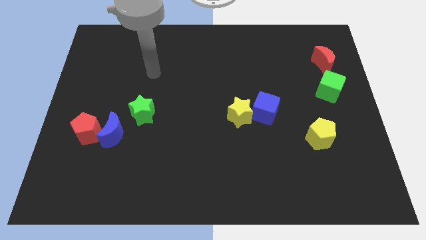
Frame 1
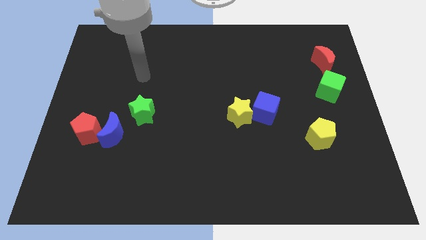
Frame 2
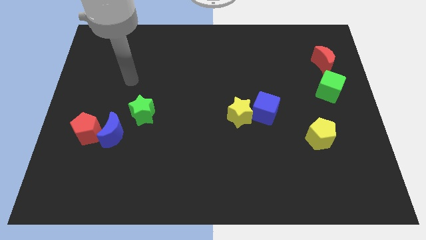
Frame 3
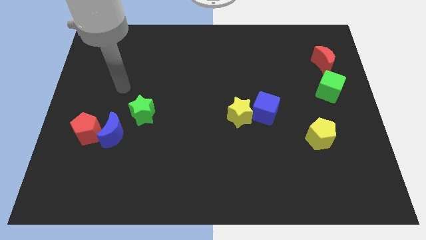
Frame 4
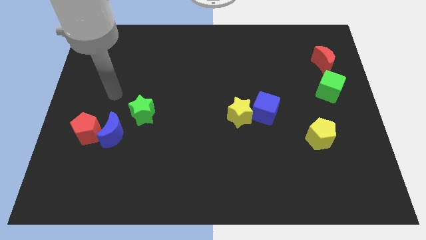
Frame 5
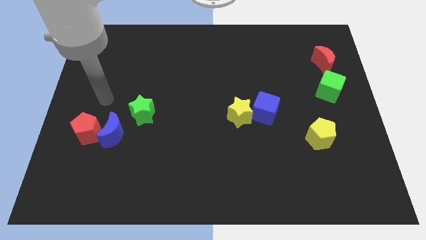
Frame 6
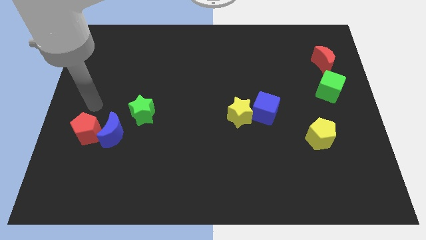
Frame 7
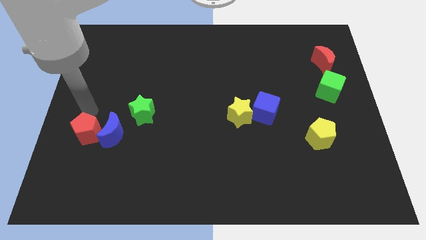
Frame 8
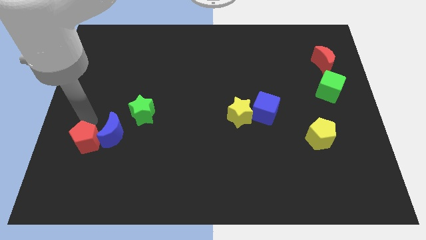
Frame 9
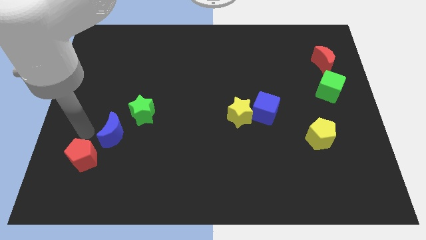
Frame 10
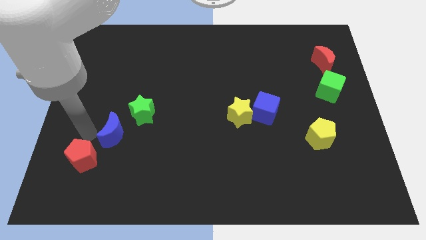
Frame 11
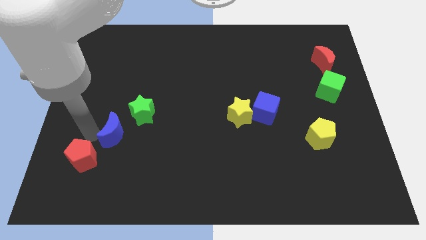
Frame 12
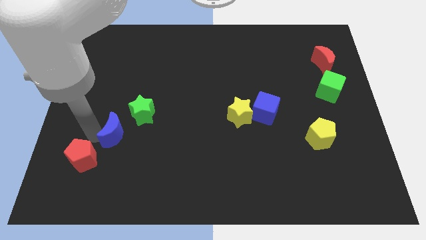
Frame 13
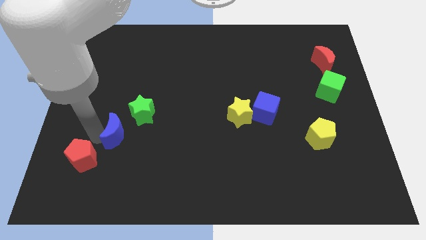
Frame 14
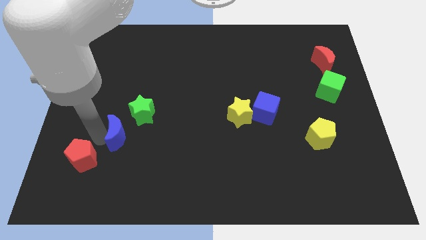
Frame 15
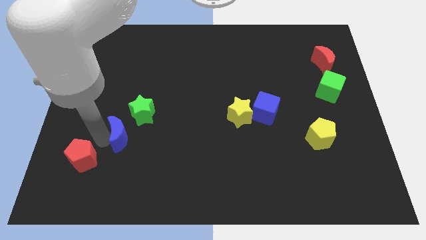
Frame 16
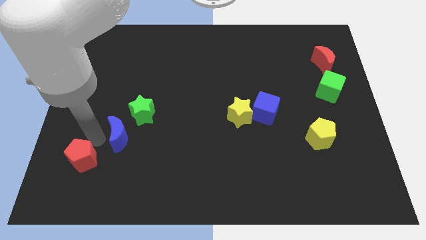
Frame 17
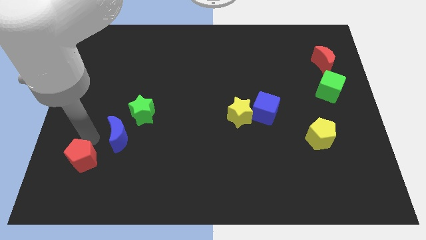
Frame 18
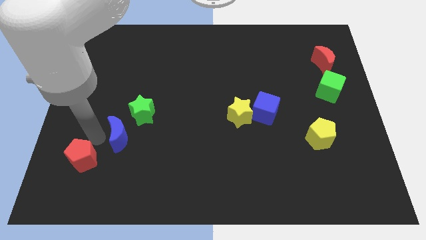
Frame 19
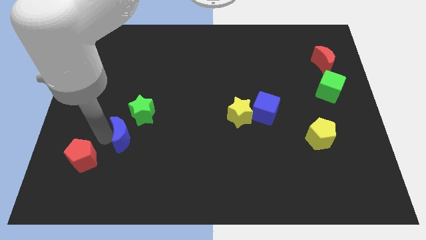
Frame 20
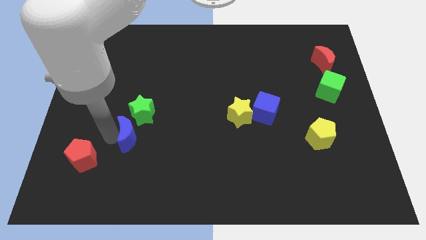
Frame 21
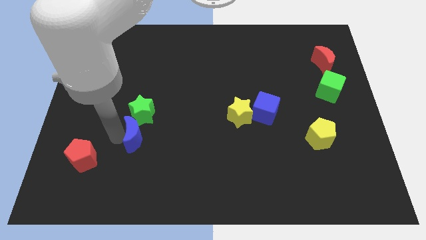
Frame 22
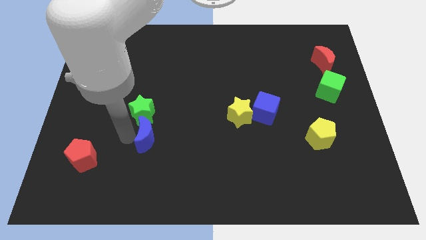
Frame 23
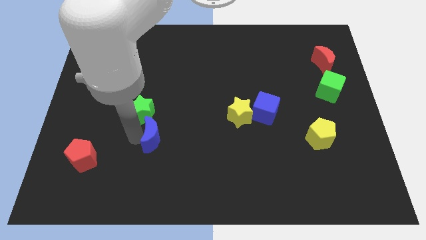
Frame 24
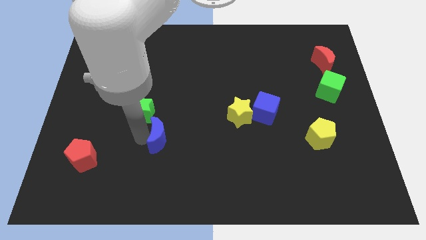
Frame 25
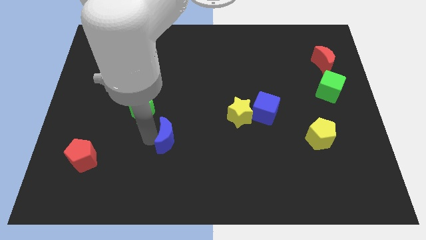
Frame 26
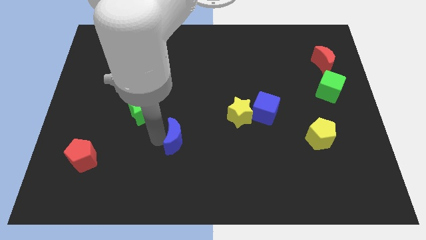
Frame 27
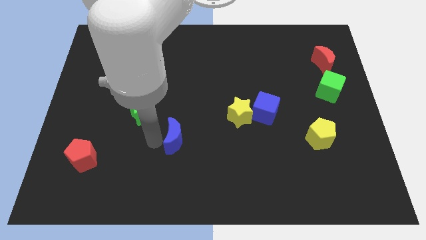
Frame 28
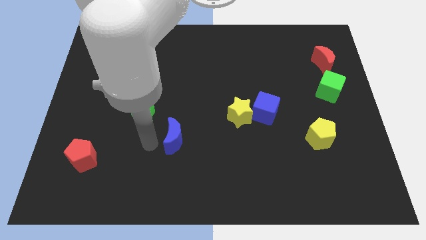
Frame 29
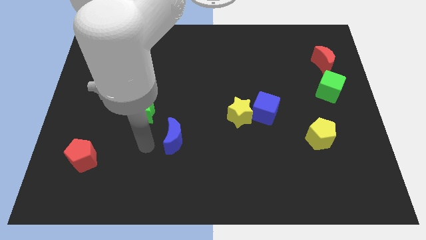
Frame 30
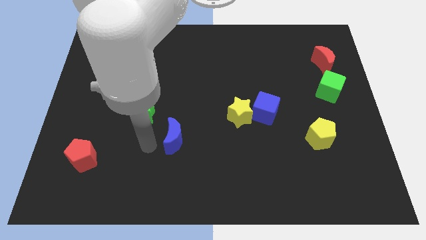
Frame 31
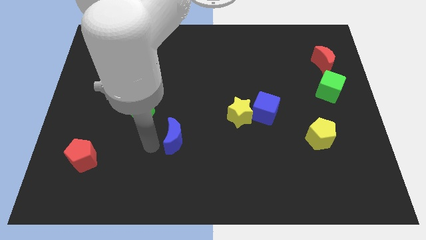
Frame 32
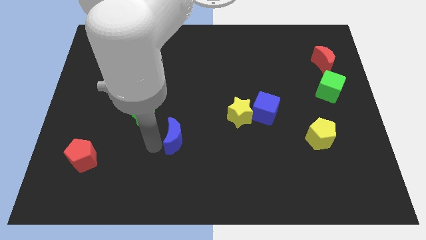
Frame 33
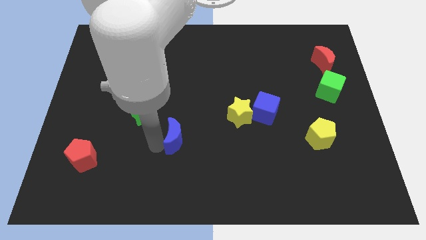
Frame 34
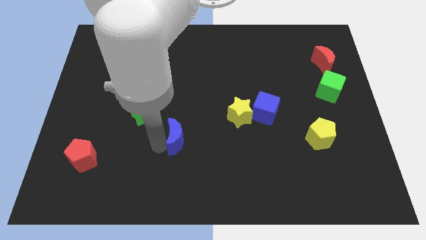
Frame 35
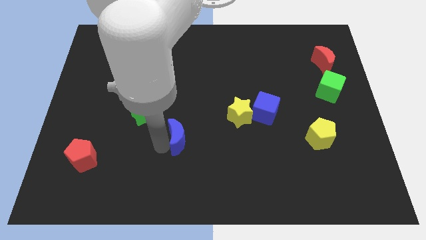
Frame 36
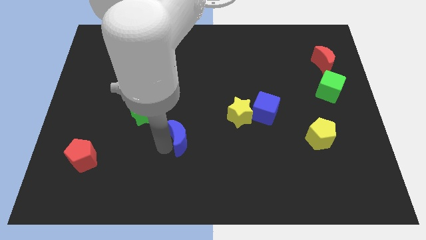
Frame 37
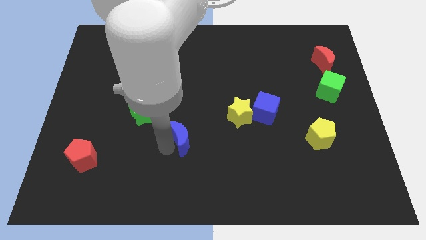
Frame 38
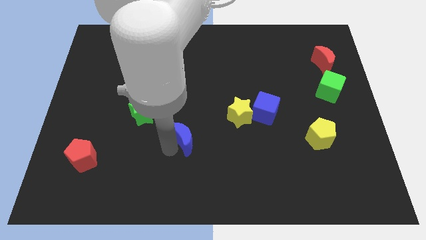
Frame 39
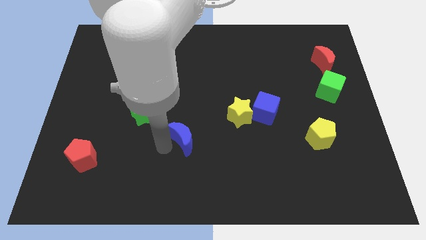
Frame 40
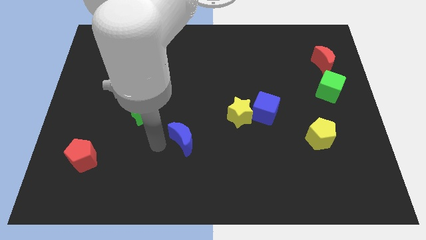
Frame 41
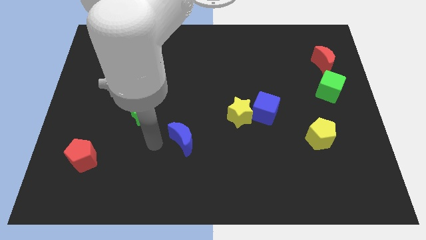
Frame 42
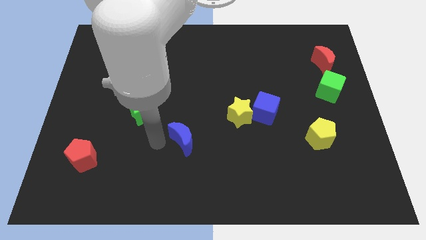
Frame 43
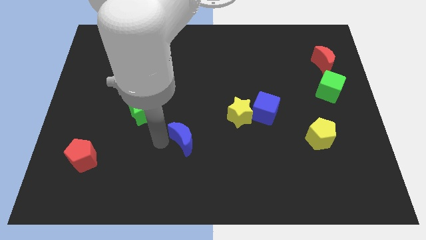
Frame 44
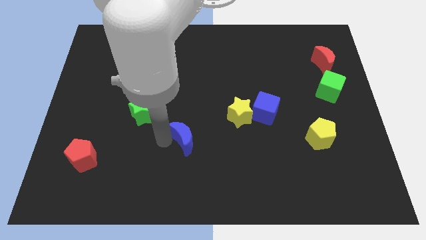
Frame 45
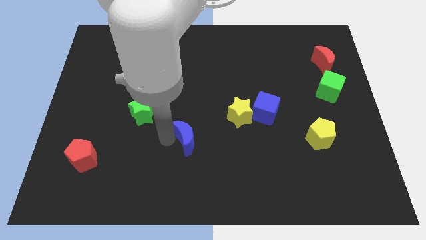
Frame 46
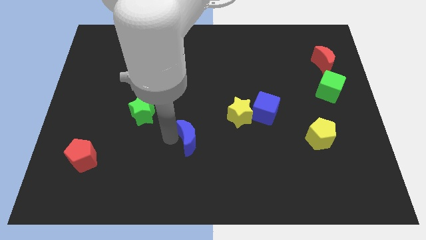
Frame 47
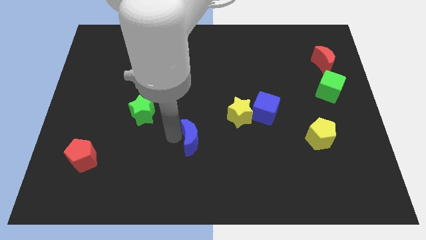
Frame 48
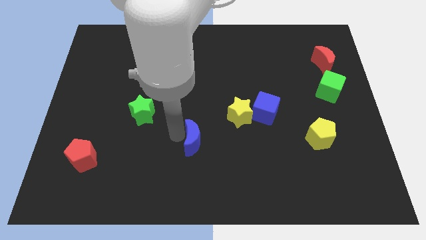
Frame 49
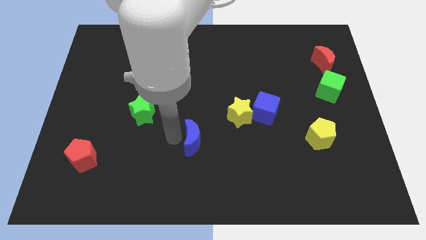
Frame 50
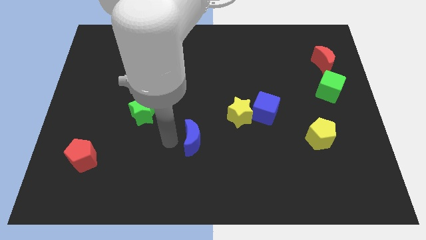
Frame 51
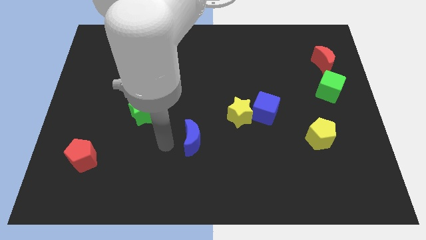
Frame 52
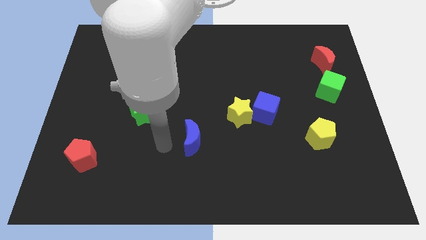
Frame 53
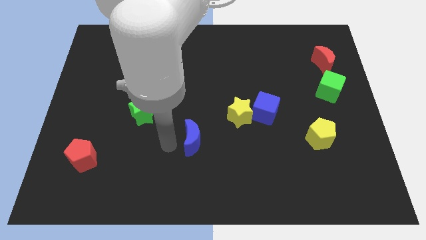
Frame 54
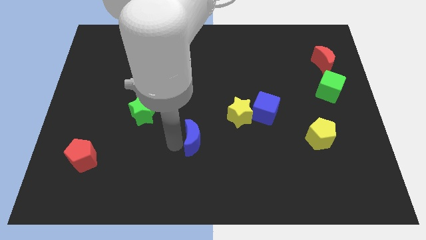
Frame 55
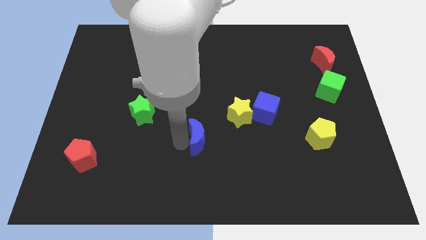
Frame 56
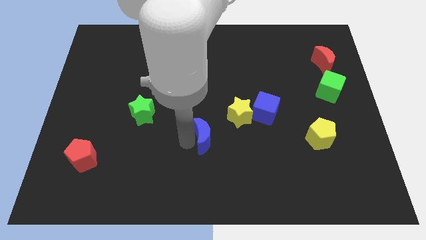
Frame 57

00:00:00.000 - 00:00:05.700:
move the blue moon right

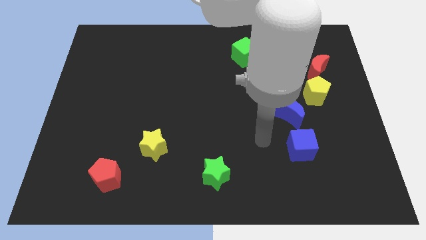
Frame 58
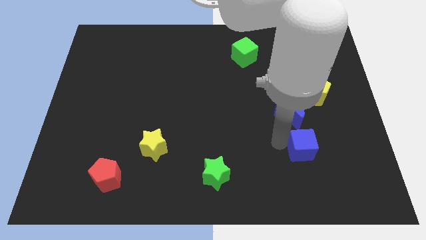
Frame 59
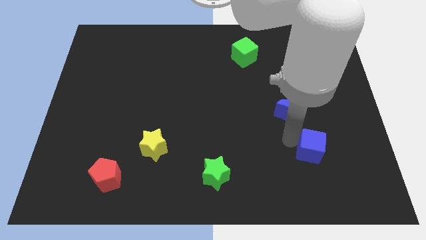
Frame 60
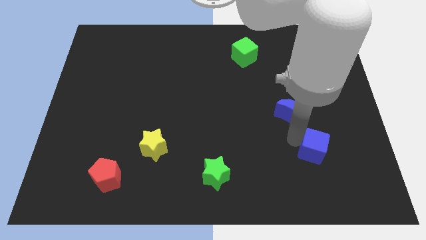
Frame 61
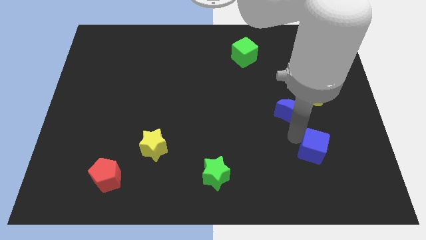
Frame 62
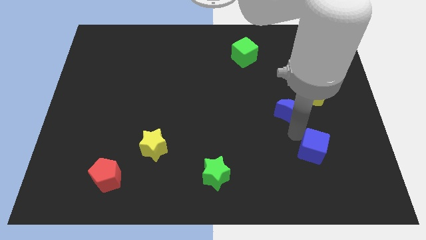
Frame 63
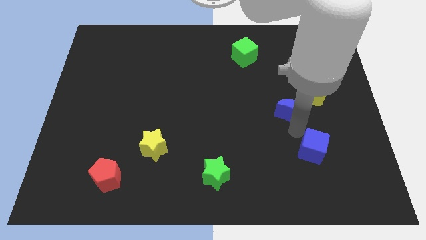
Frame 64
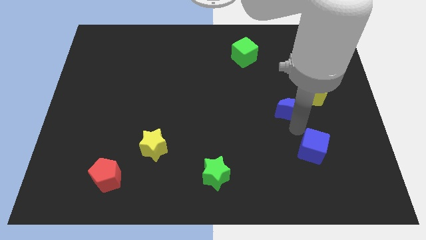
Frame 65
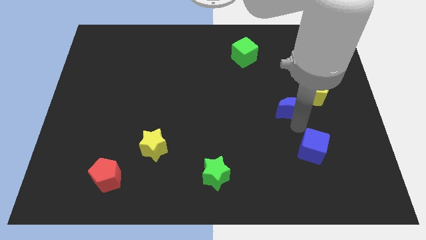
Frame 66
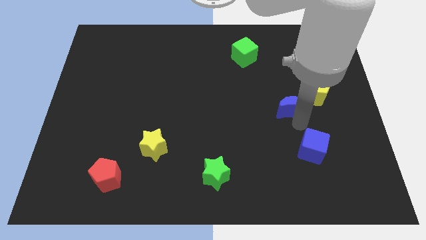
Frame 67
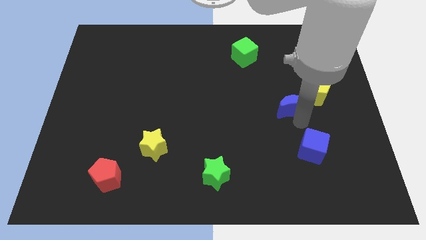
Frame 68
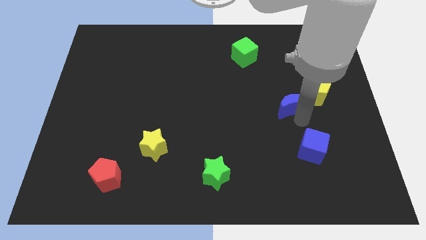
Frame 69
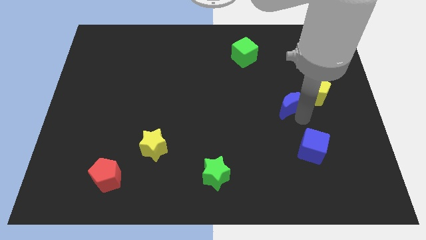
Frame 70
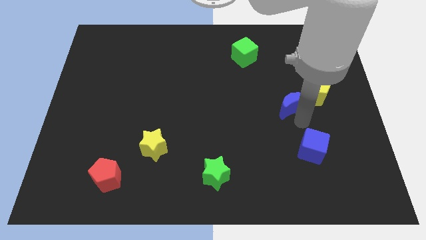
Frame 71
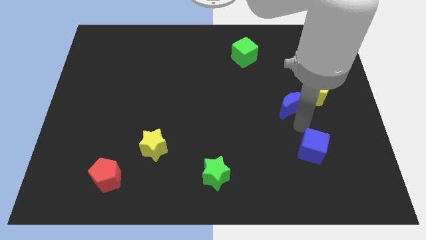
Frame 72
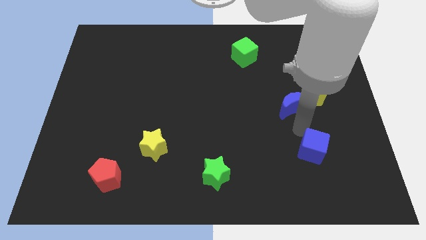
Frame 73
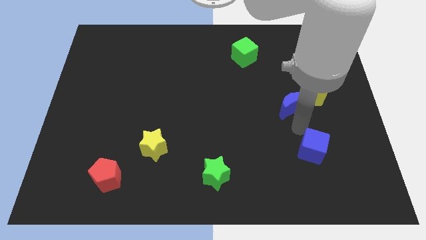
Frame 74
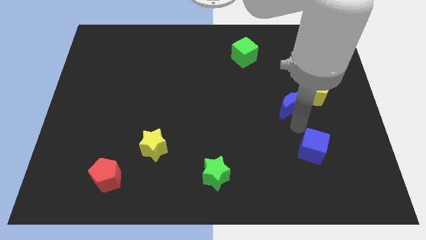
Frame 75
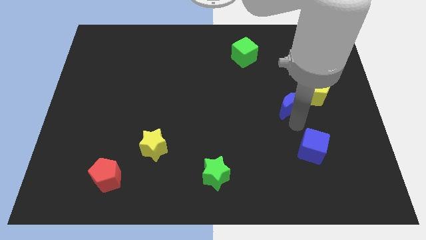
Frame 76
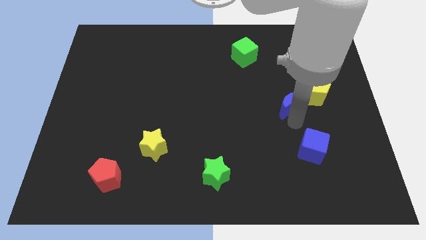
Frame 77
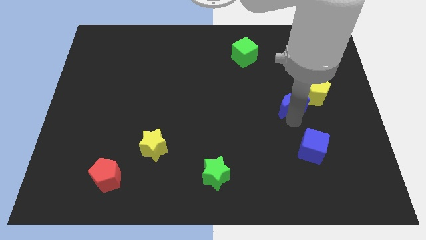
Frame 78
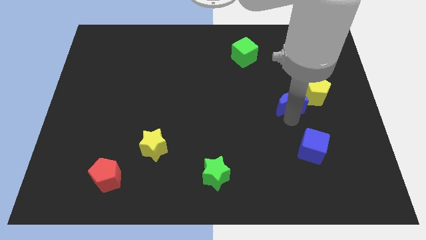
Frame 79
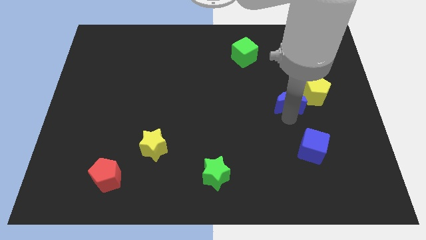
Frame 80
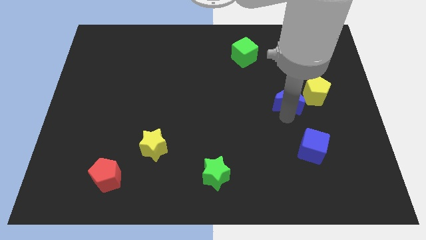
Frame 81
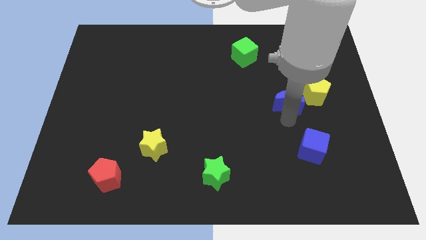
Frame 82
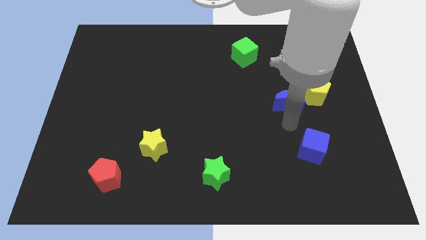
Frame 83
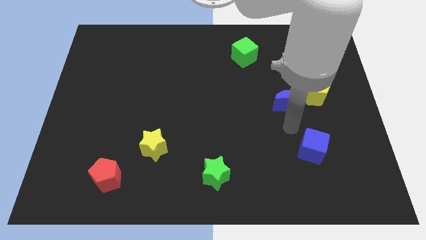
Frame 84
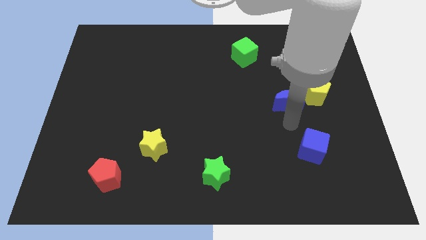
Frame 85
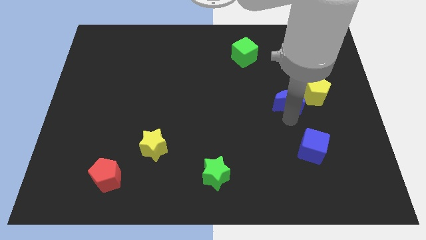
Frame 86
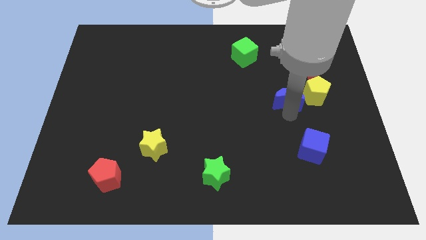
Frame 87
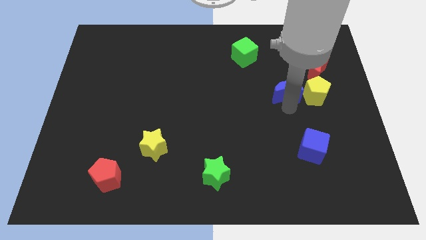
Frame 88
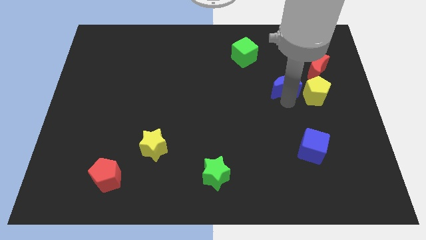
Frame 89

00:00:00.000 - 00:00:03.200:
push the blue moon somewhat up
